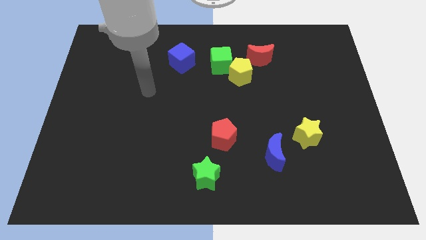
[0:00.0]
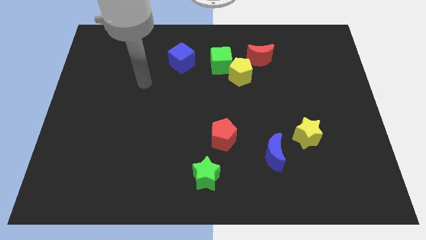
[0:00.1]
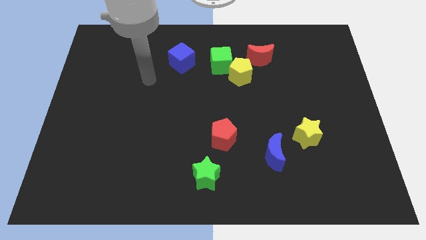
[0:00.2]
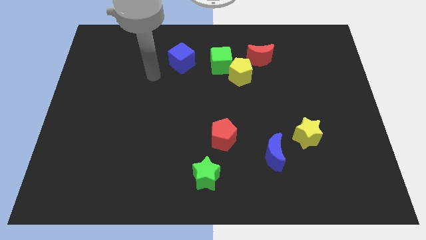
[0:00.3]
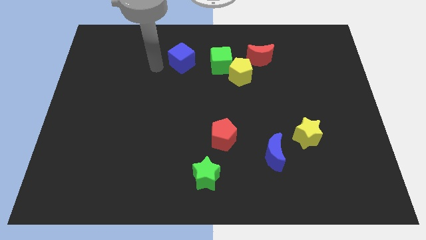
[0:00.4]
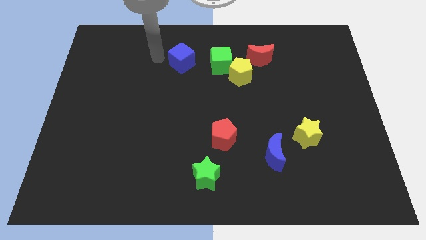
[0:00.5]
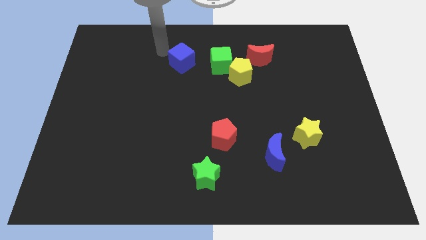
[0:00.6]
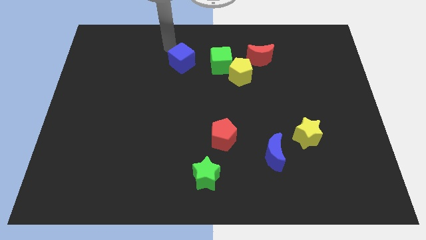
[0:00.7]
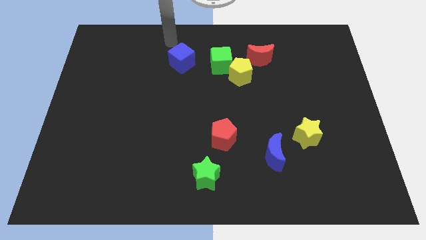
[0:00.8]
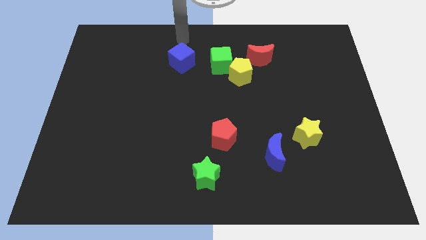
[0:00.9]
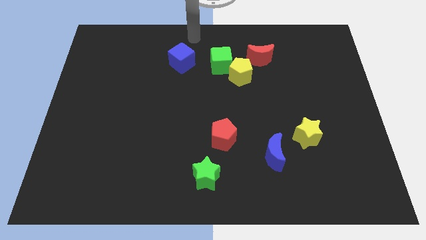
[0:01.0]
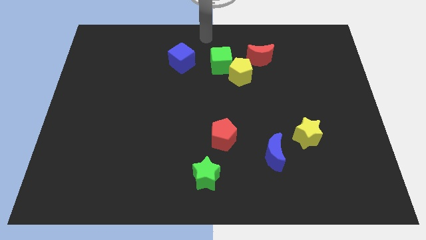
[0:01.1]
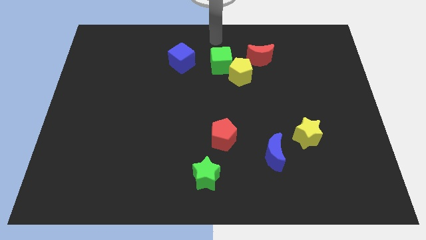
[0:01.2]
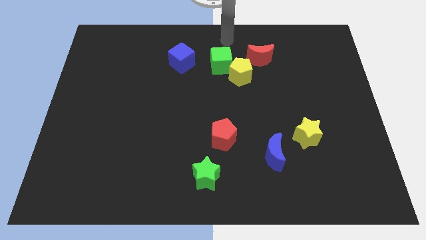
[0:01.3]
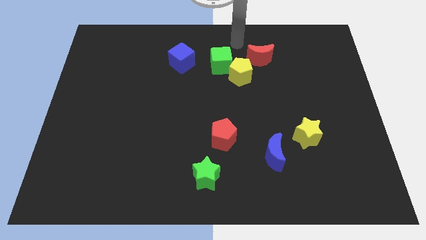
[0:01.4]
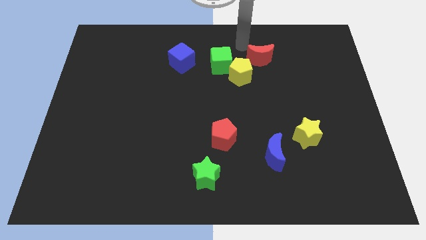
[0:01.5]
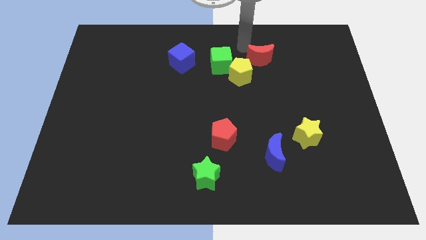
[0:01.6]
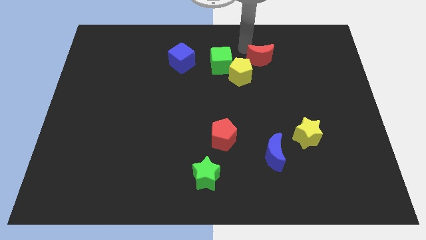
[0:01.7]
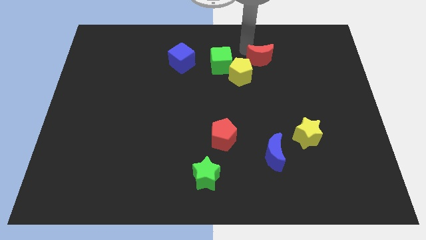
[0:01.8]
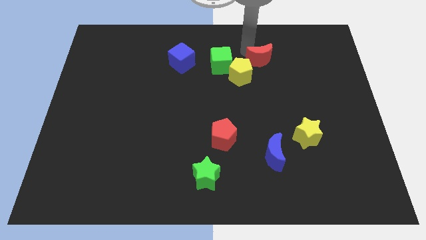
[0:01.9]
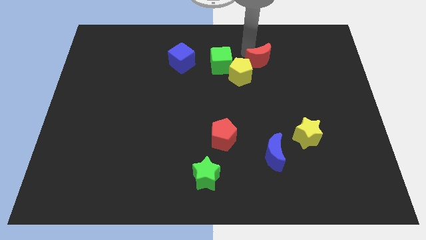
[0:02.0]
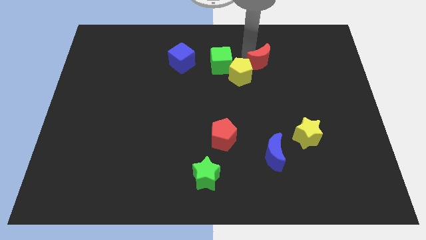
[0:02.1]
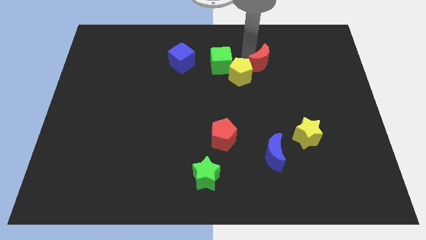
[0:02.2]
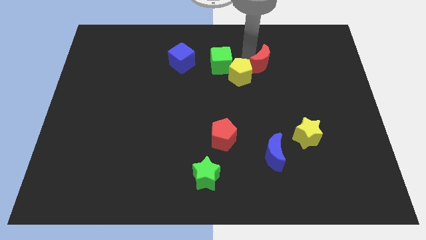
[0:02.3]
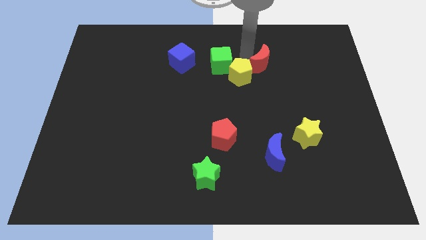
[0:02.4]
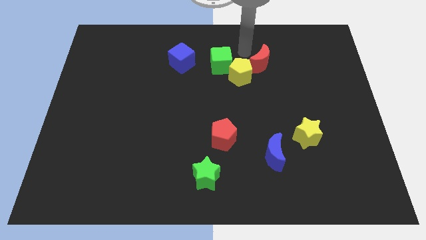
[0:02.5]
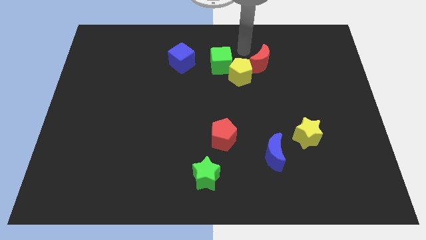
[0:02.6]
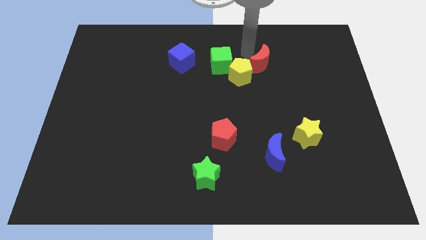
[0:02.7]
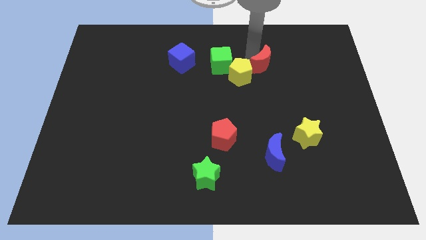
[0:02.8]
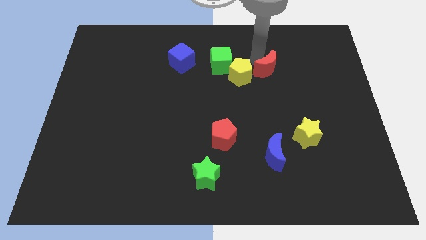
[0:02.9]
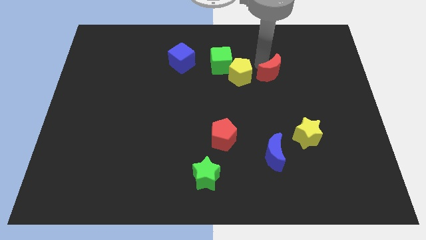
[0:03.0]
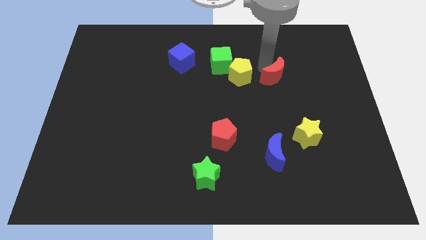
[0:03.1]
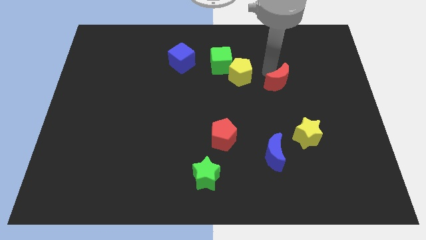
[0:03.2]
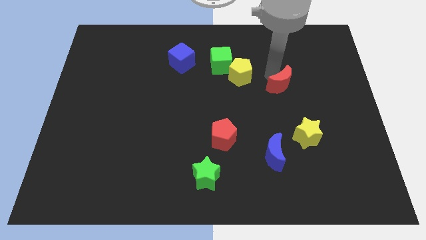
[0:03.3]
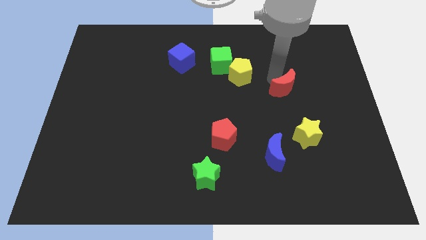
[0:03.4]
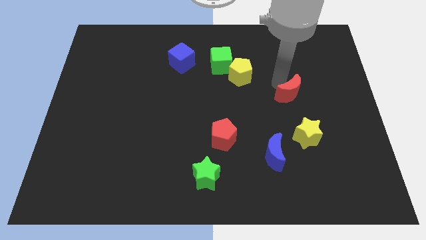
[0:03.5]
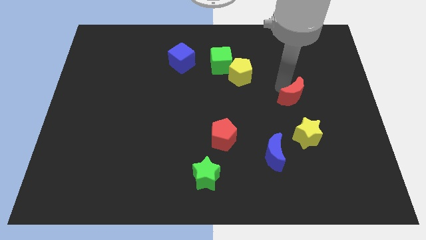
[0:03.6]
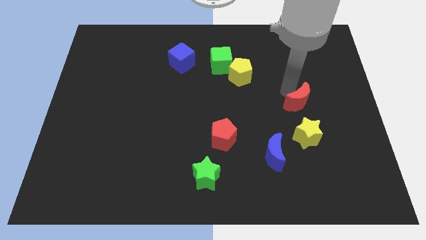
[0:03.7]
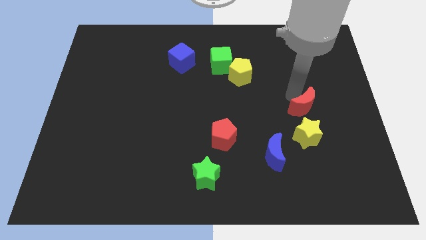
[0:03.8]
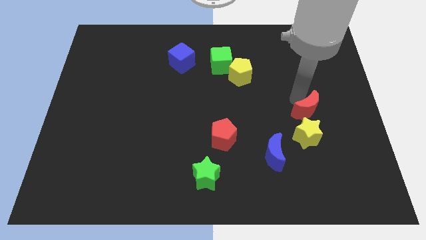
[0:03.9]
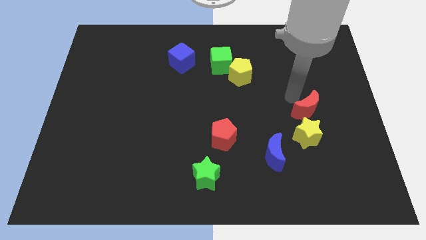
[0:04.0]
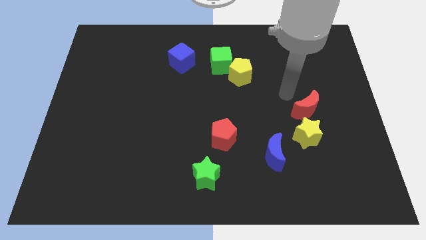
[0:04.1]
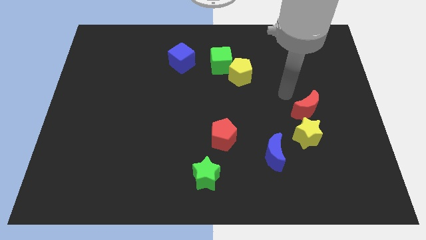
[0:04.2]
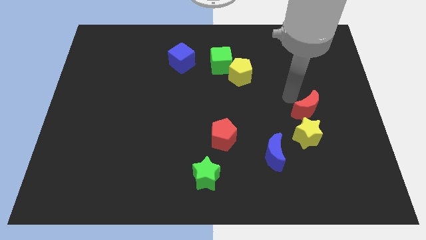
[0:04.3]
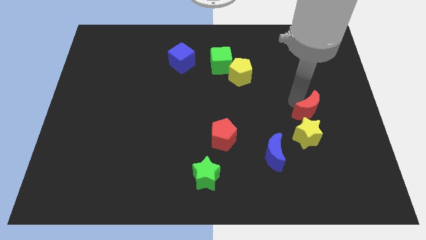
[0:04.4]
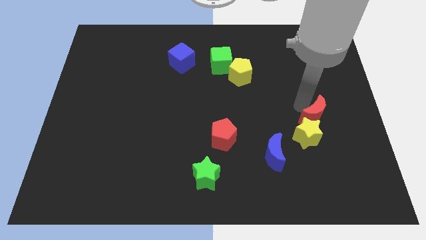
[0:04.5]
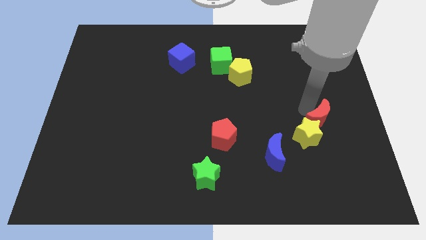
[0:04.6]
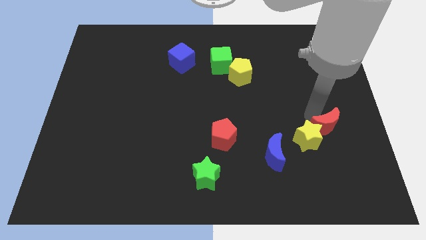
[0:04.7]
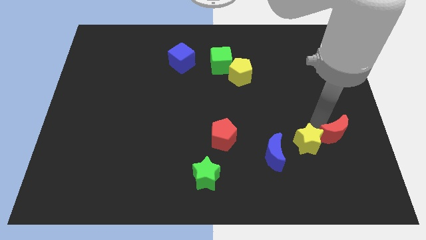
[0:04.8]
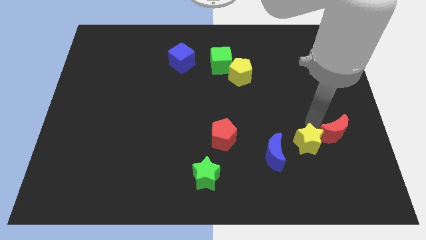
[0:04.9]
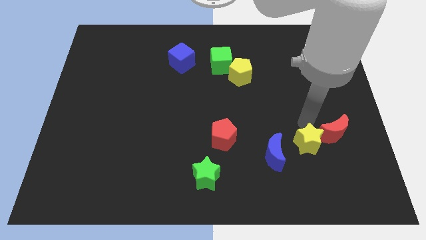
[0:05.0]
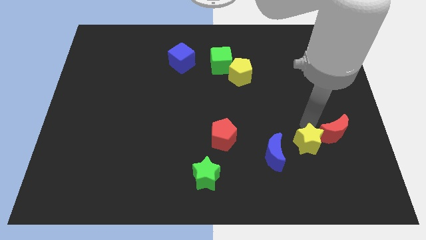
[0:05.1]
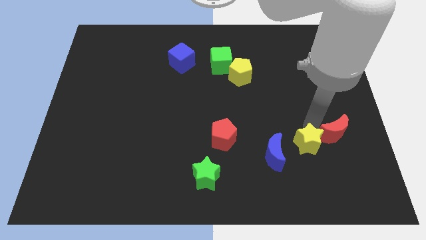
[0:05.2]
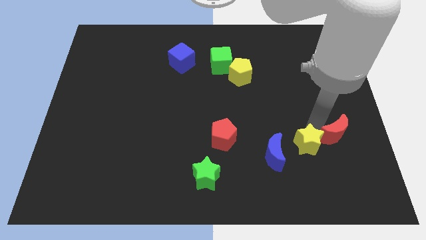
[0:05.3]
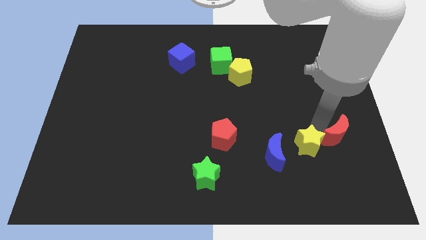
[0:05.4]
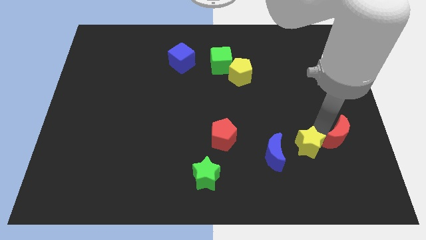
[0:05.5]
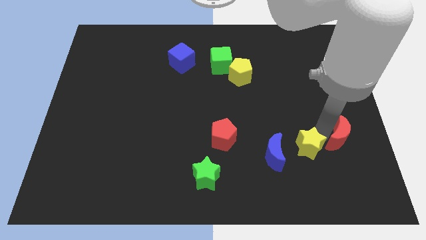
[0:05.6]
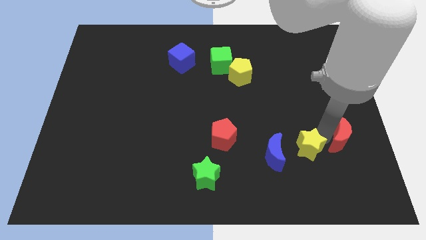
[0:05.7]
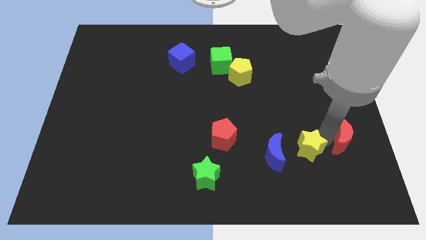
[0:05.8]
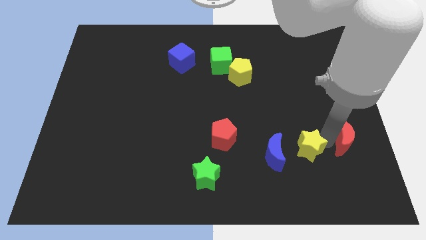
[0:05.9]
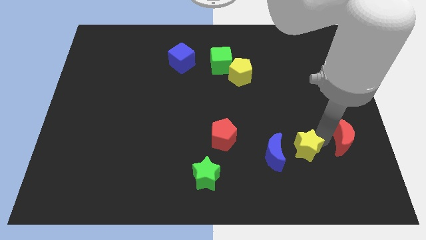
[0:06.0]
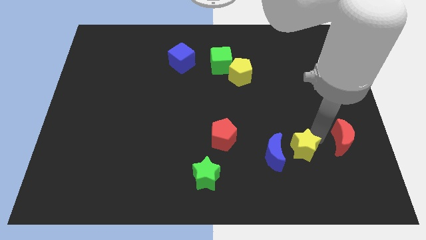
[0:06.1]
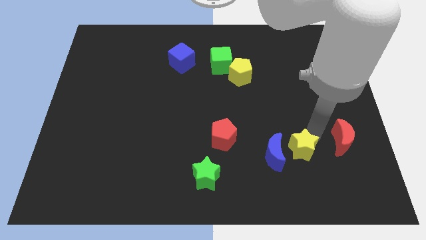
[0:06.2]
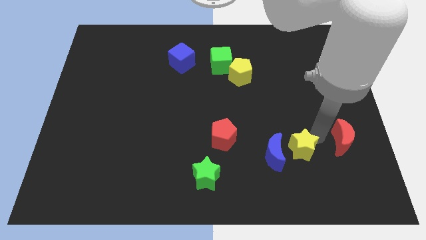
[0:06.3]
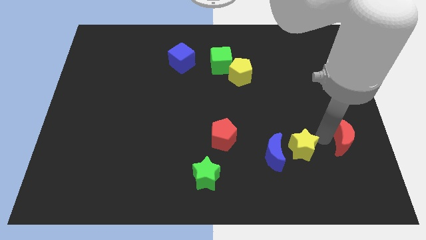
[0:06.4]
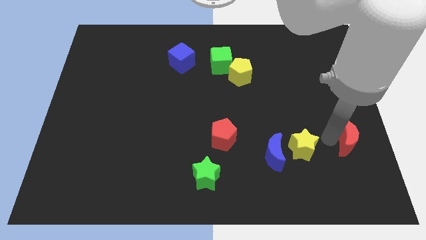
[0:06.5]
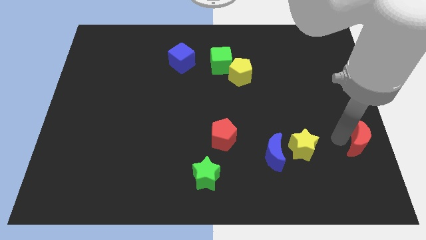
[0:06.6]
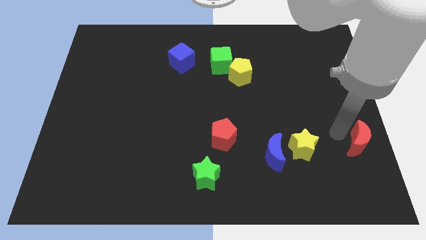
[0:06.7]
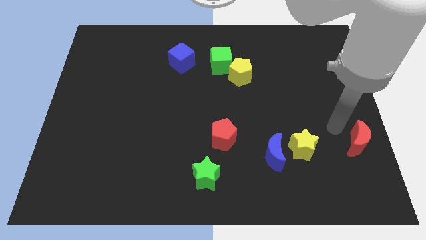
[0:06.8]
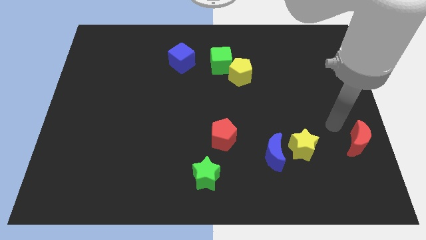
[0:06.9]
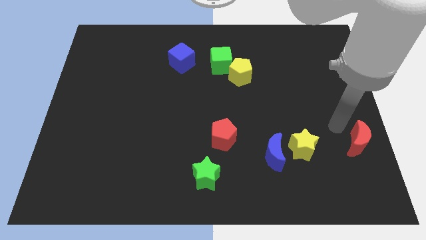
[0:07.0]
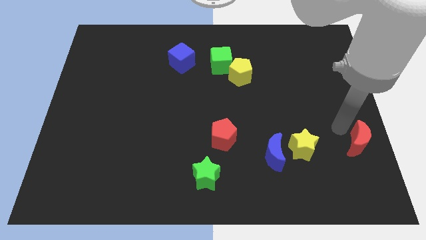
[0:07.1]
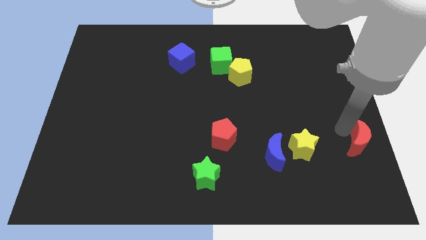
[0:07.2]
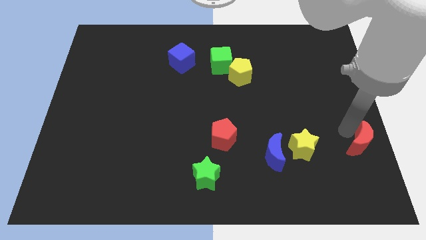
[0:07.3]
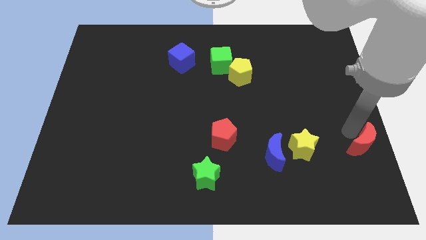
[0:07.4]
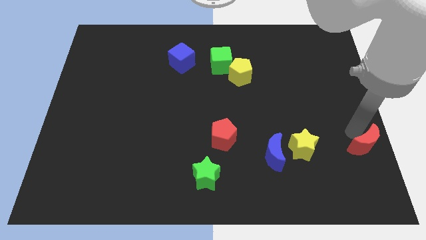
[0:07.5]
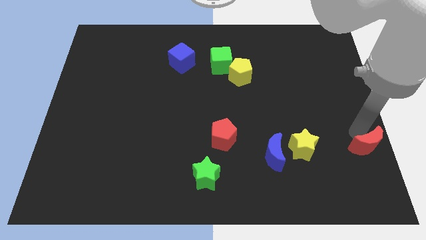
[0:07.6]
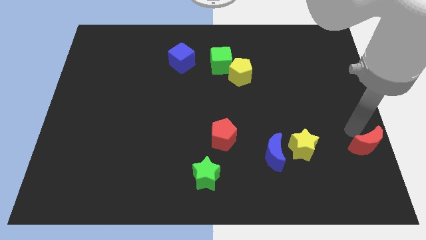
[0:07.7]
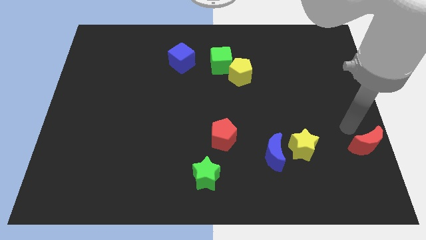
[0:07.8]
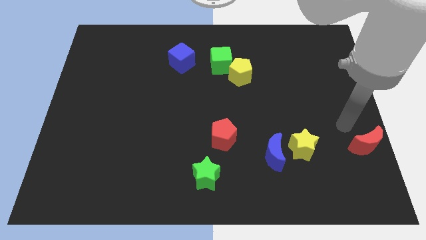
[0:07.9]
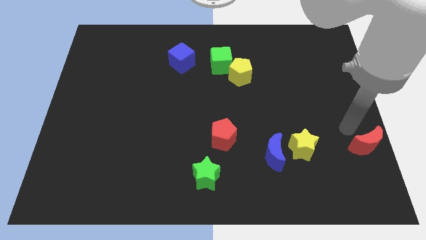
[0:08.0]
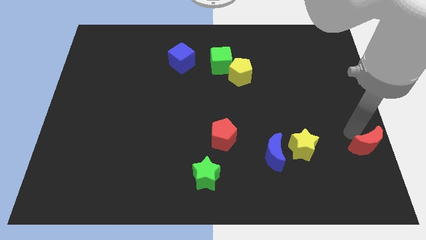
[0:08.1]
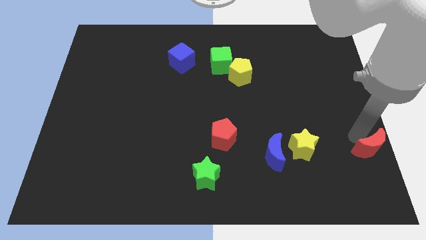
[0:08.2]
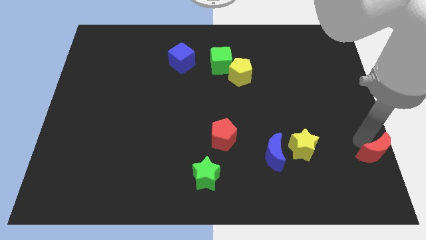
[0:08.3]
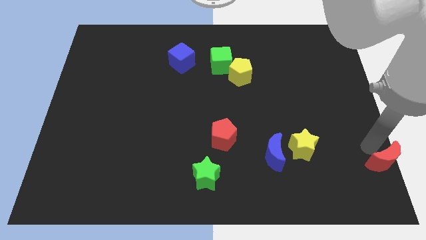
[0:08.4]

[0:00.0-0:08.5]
push the red moon to the bottom right of the board
